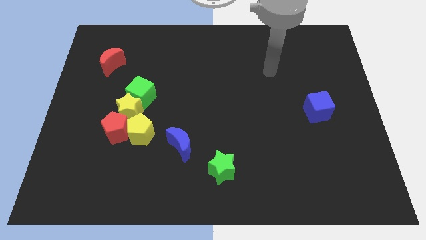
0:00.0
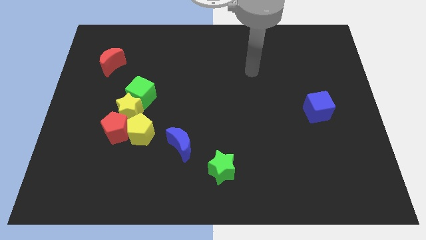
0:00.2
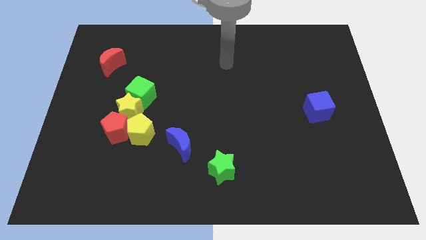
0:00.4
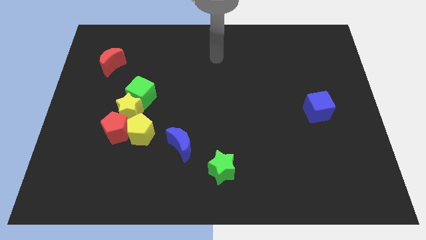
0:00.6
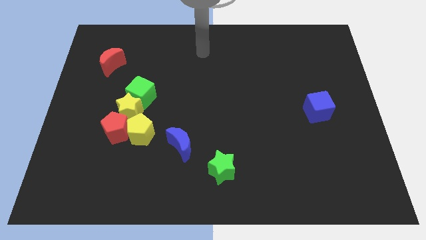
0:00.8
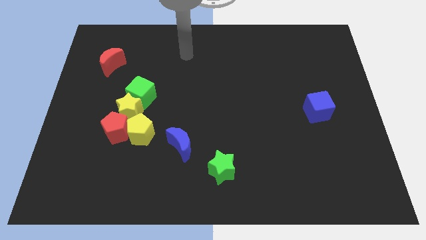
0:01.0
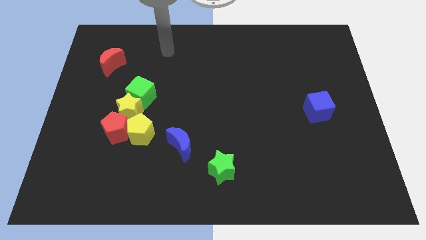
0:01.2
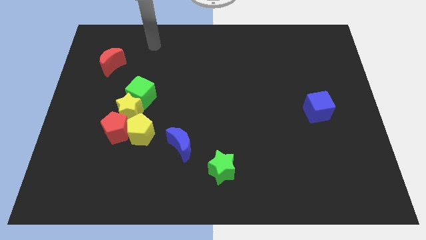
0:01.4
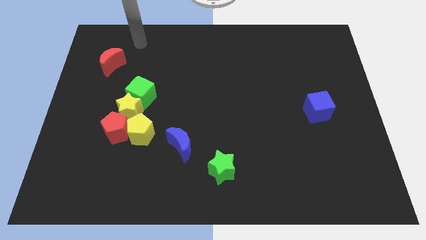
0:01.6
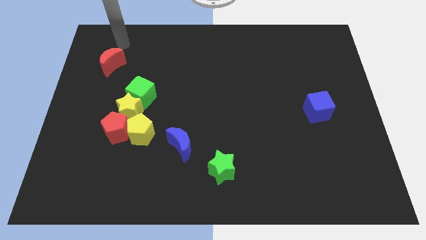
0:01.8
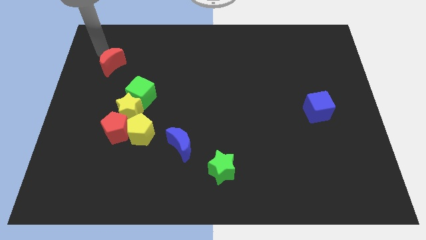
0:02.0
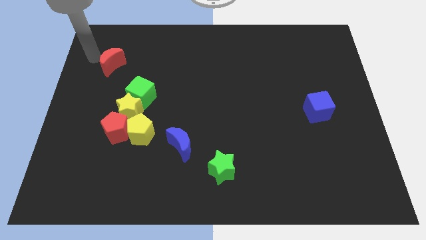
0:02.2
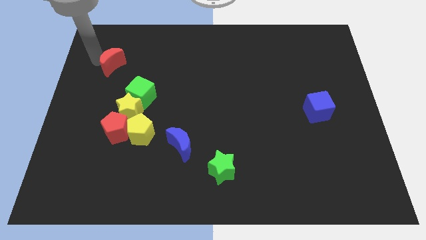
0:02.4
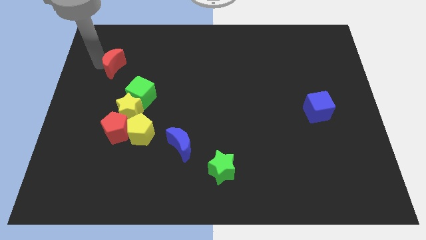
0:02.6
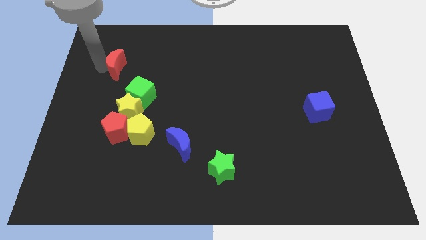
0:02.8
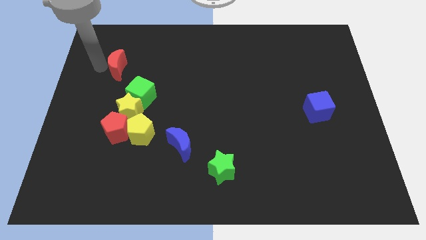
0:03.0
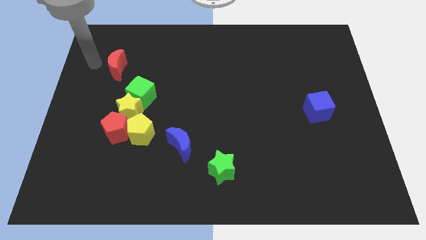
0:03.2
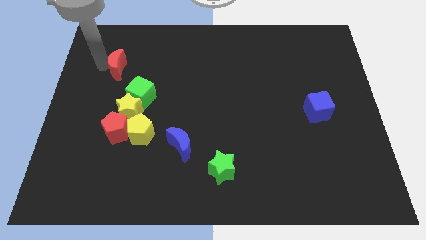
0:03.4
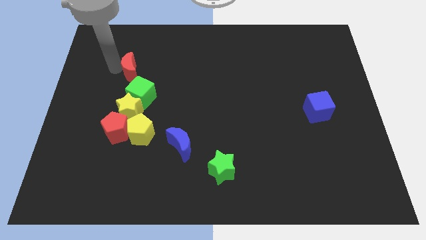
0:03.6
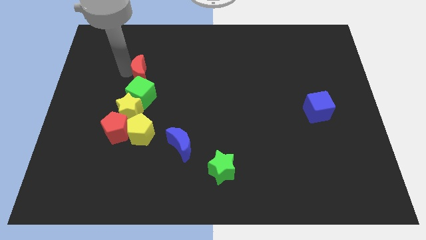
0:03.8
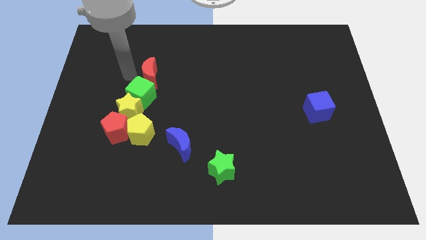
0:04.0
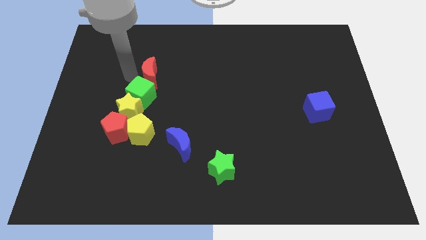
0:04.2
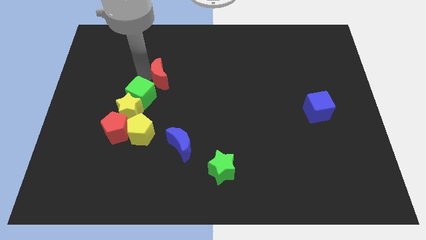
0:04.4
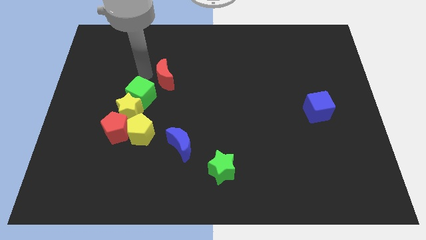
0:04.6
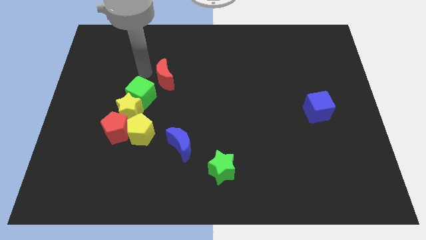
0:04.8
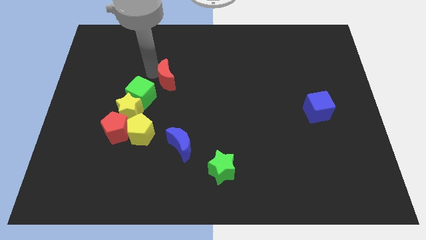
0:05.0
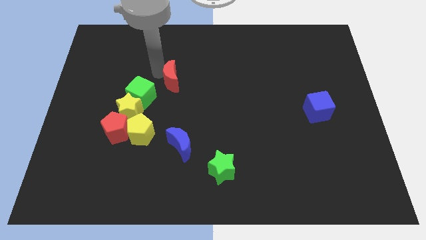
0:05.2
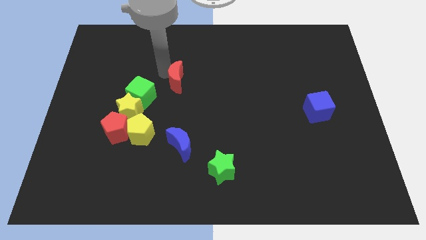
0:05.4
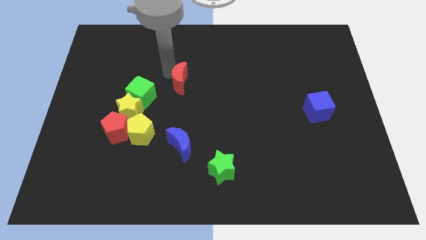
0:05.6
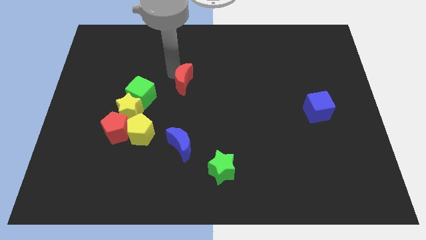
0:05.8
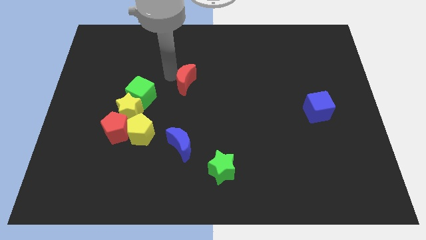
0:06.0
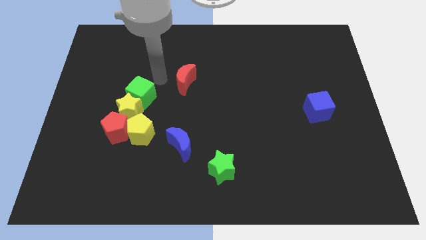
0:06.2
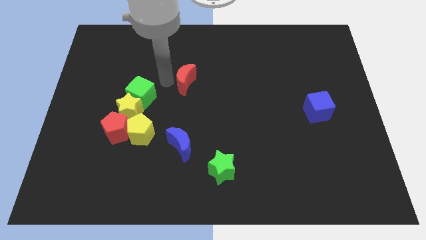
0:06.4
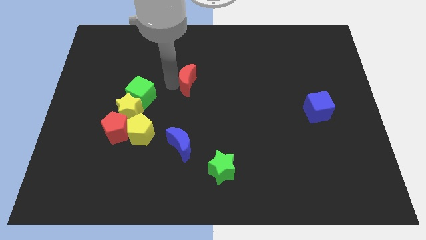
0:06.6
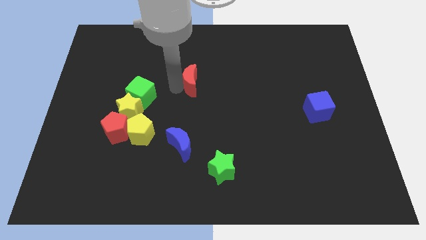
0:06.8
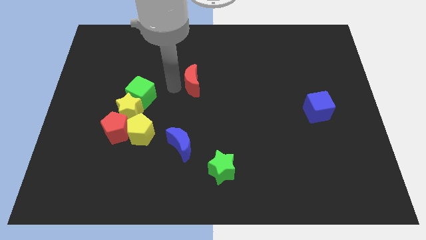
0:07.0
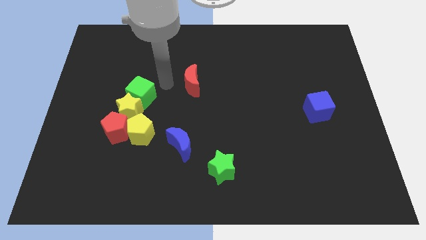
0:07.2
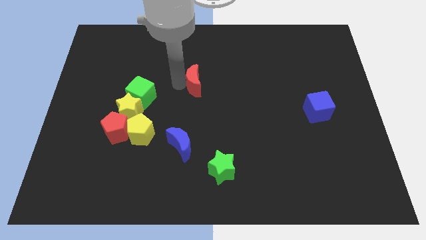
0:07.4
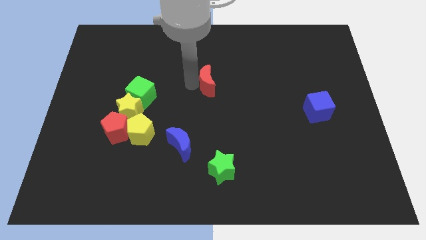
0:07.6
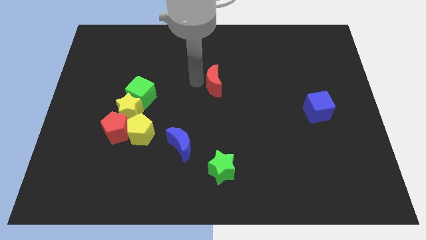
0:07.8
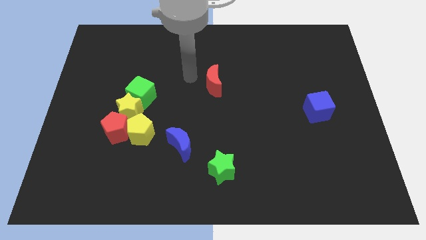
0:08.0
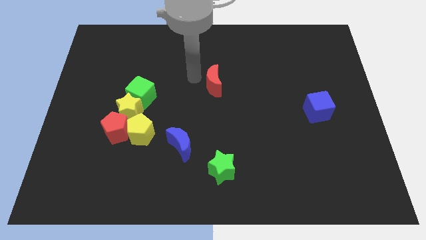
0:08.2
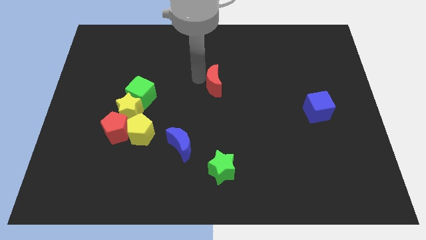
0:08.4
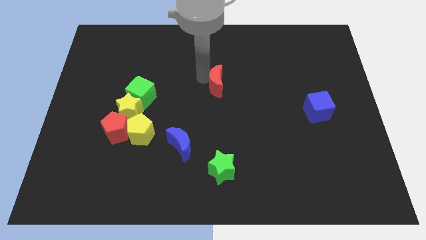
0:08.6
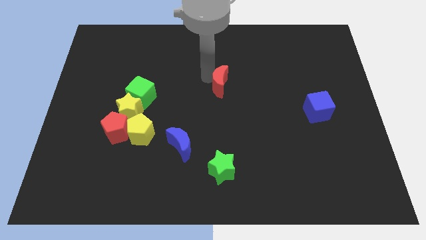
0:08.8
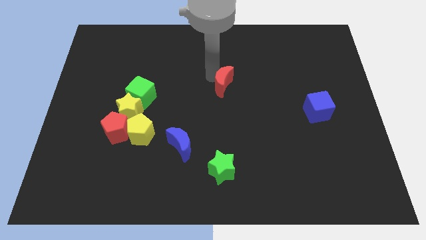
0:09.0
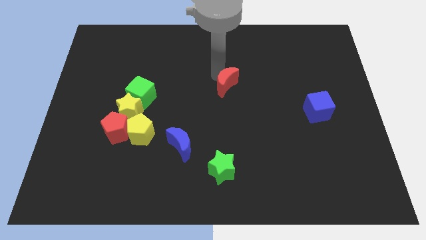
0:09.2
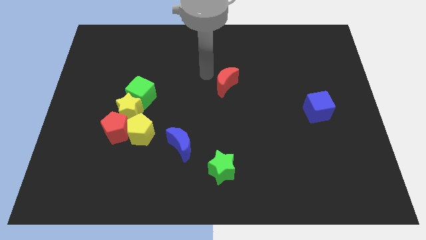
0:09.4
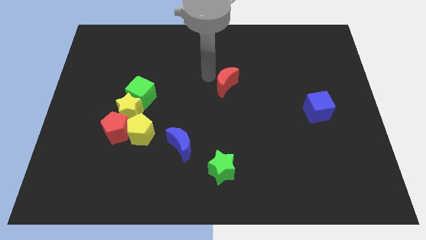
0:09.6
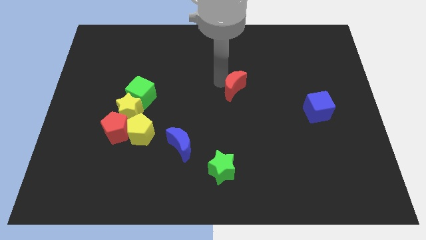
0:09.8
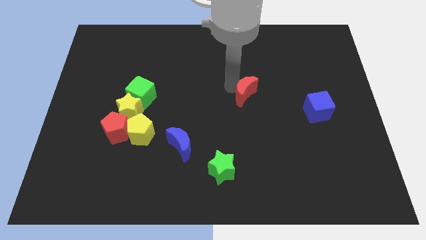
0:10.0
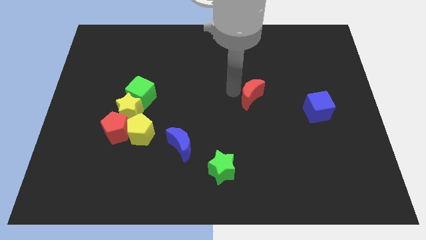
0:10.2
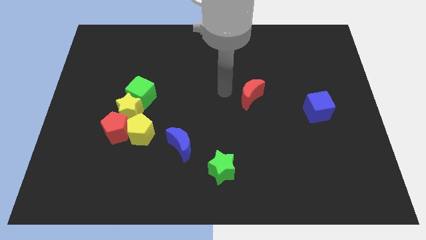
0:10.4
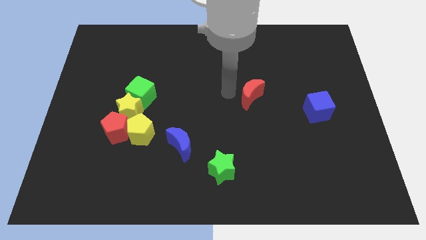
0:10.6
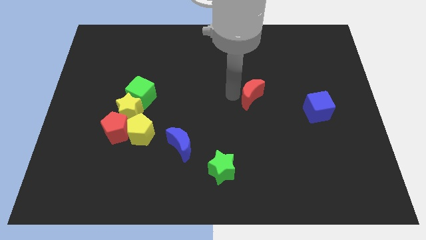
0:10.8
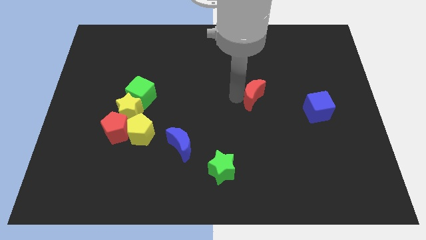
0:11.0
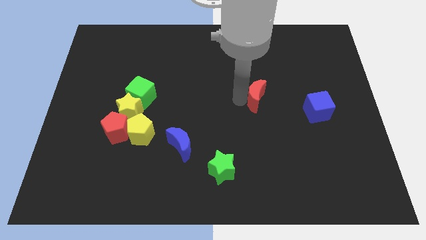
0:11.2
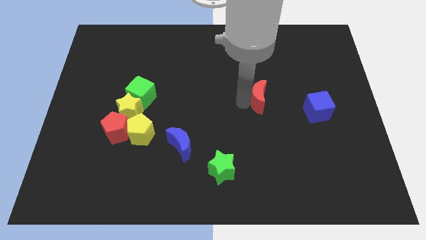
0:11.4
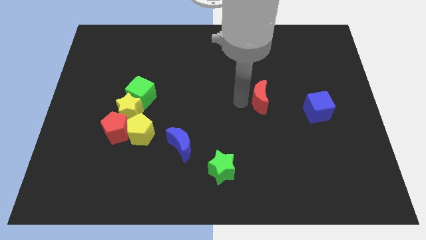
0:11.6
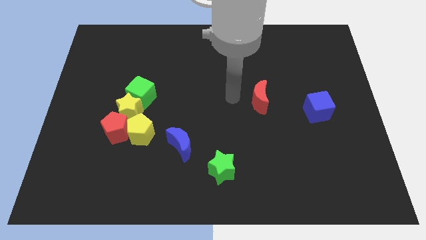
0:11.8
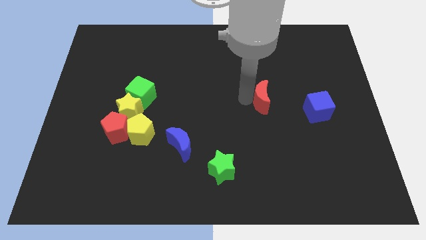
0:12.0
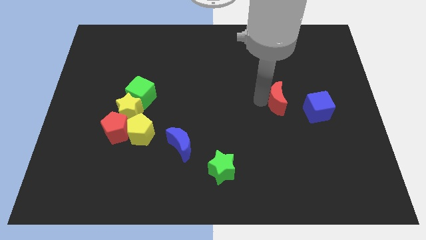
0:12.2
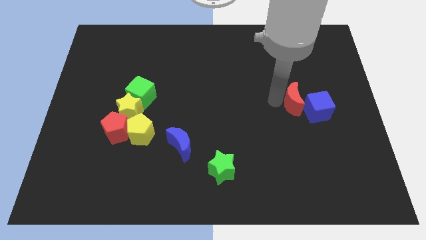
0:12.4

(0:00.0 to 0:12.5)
put the red moon next to the blue cube

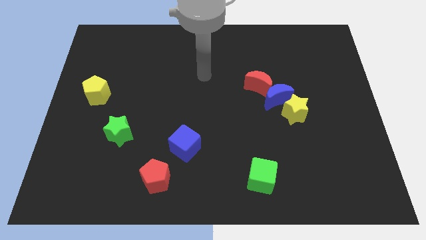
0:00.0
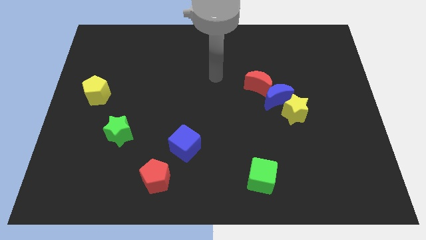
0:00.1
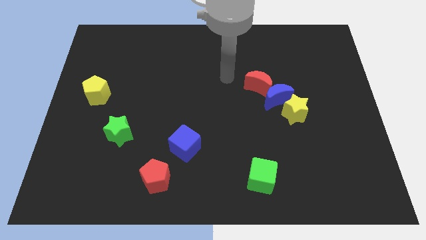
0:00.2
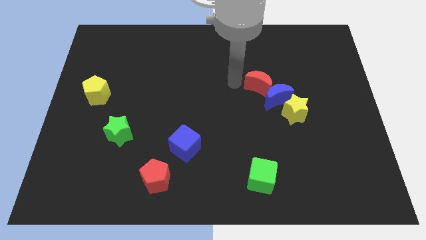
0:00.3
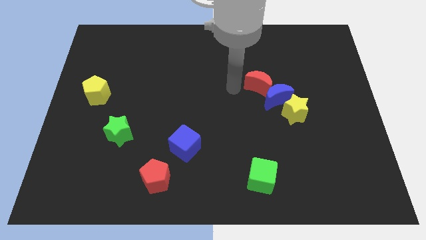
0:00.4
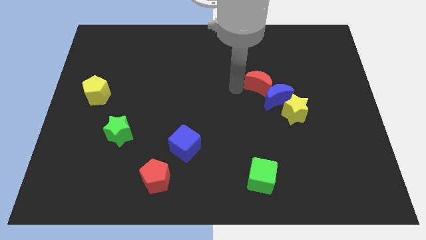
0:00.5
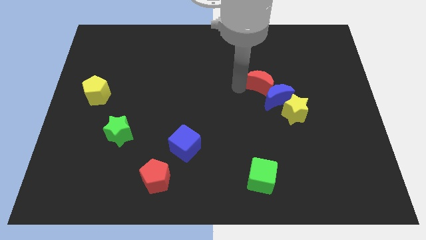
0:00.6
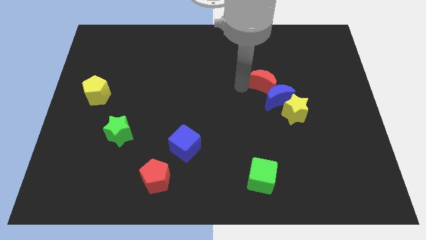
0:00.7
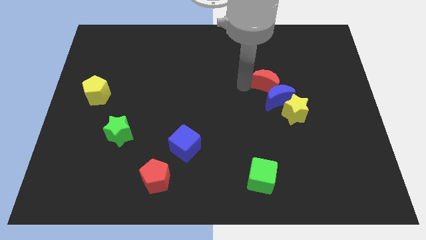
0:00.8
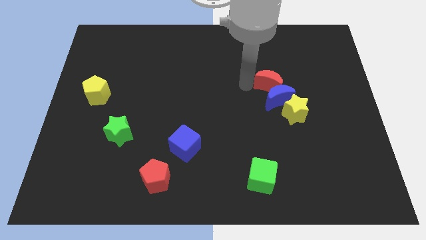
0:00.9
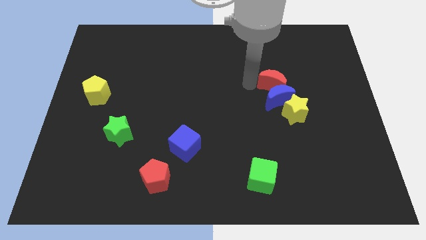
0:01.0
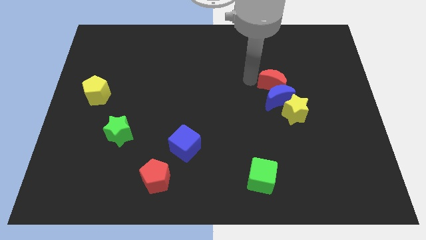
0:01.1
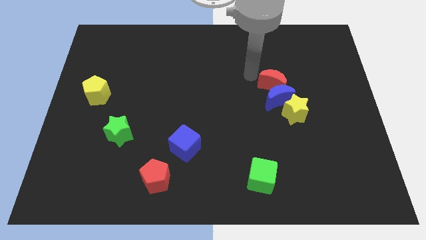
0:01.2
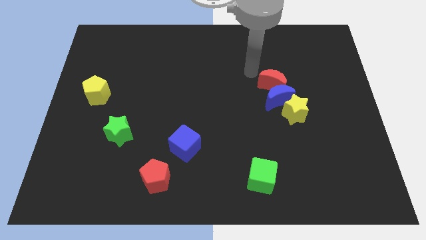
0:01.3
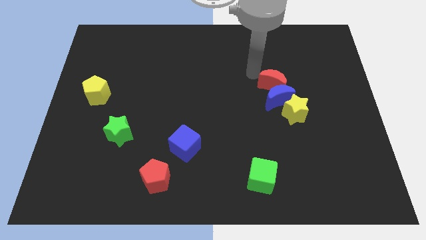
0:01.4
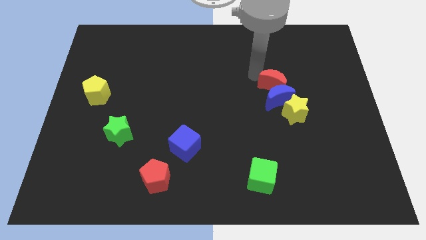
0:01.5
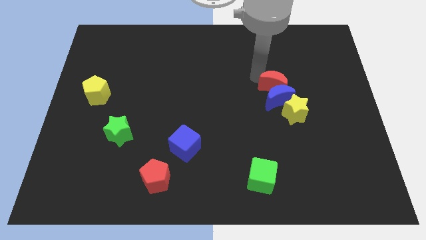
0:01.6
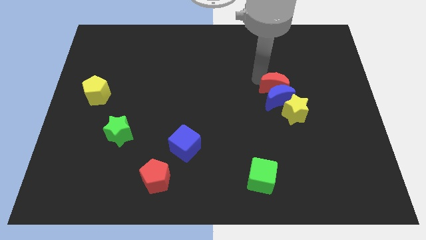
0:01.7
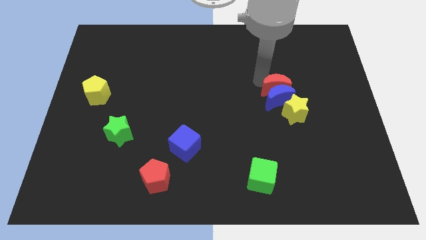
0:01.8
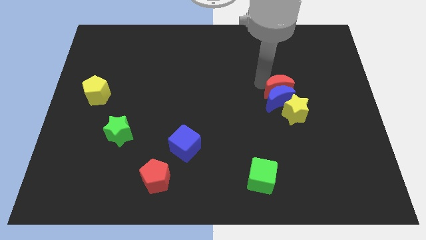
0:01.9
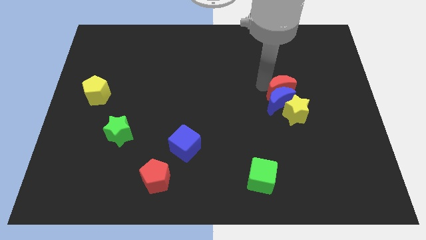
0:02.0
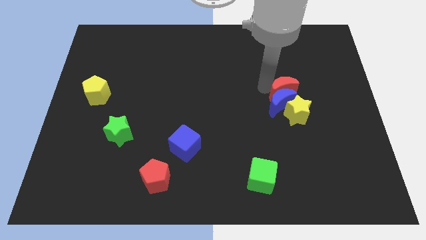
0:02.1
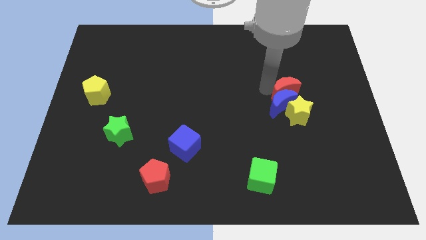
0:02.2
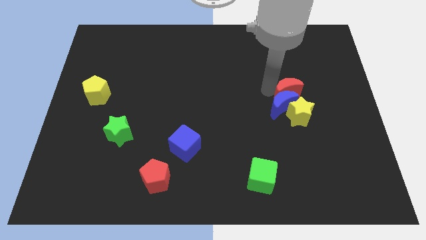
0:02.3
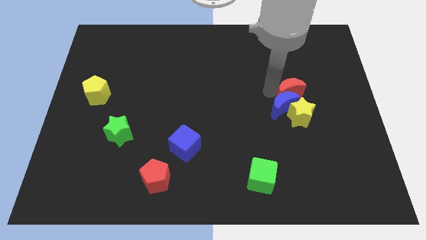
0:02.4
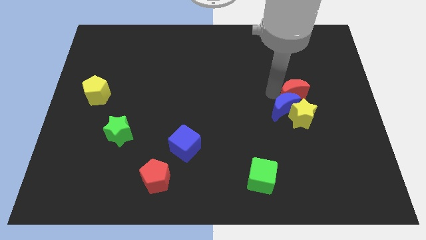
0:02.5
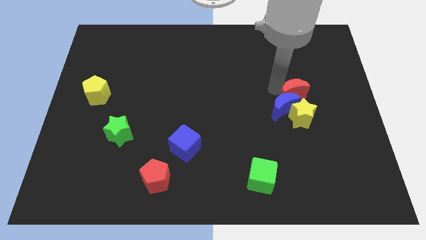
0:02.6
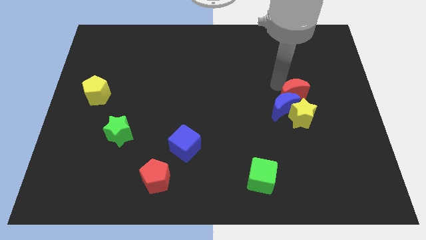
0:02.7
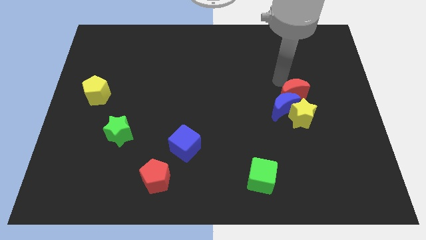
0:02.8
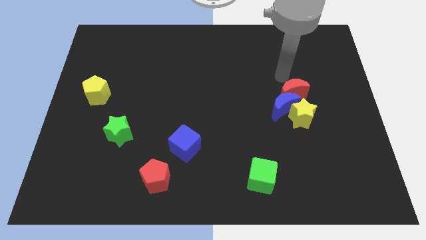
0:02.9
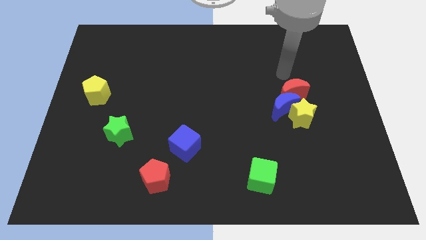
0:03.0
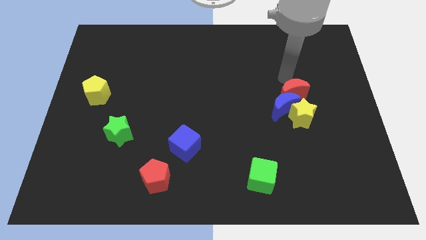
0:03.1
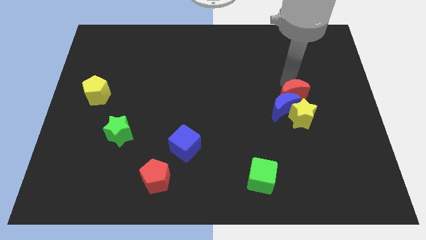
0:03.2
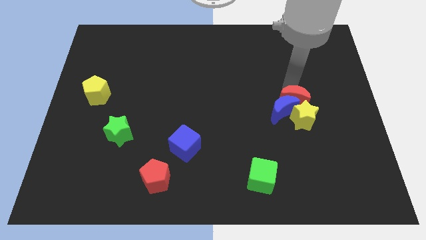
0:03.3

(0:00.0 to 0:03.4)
move the red moon to the yellow star
